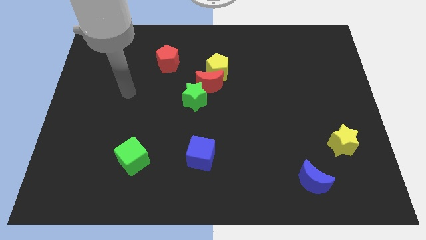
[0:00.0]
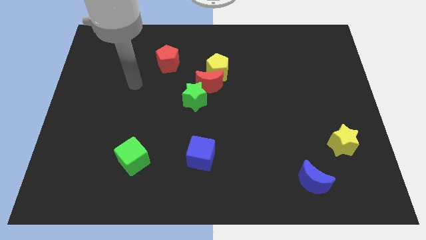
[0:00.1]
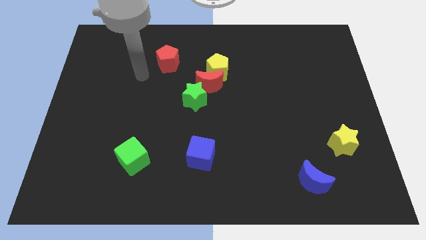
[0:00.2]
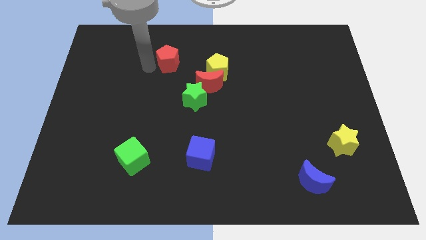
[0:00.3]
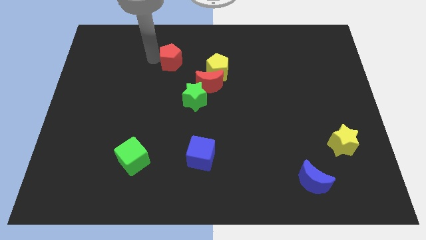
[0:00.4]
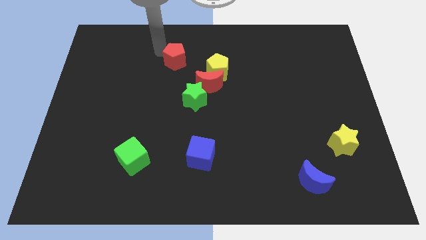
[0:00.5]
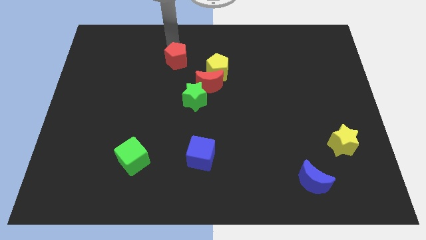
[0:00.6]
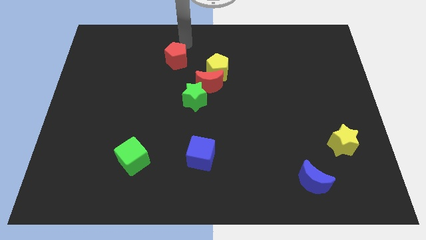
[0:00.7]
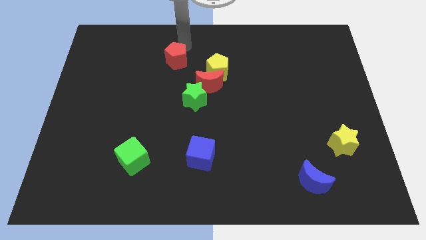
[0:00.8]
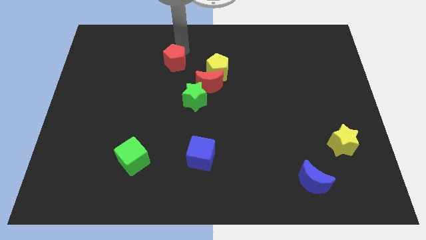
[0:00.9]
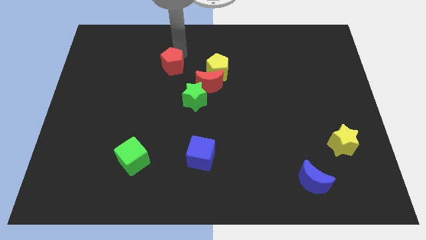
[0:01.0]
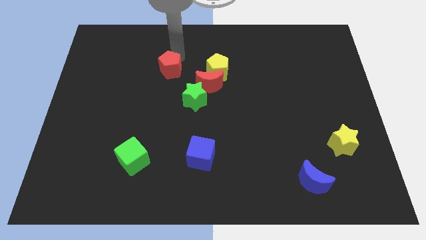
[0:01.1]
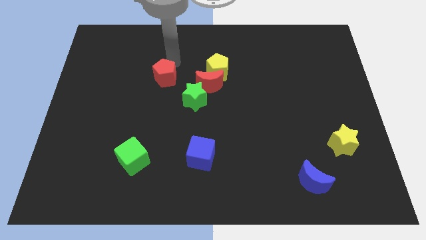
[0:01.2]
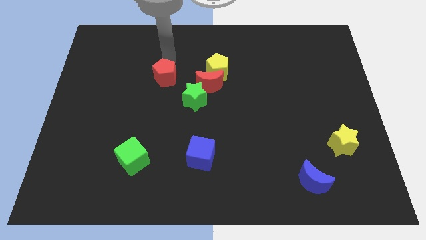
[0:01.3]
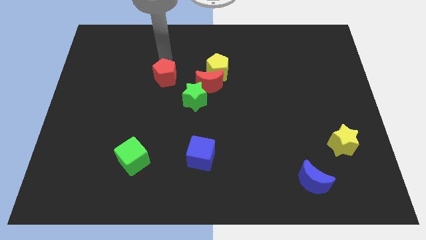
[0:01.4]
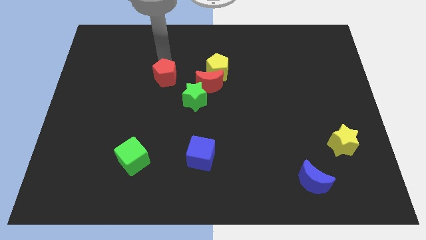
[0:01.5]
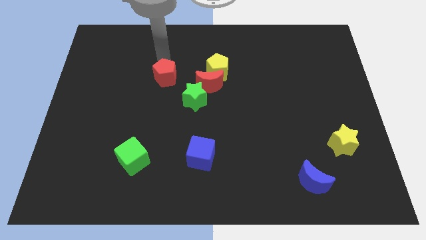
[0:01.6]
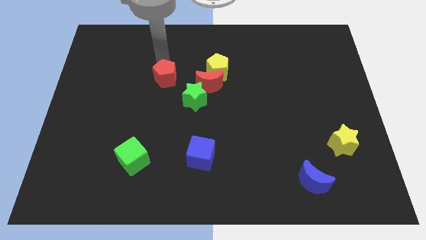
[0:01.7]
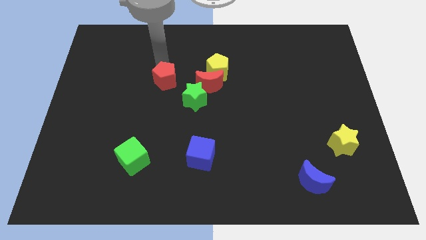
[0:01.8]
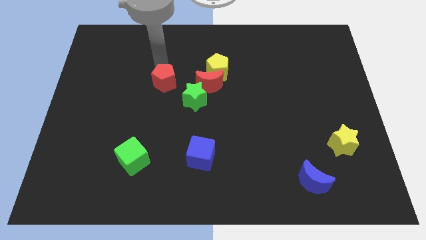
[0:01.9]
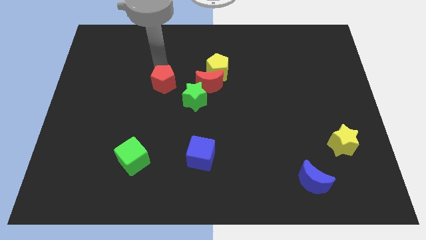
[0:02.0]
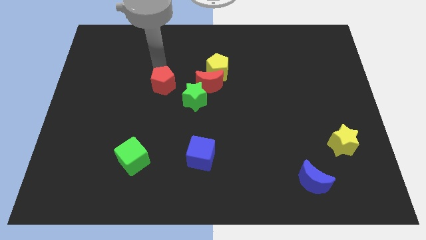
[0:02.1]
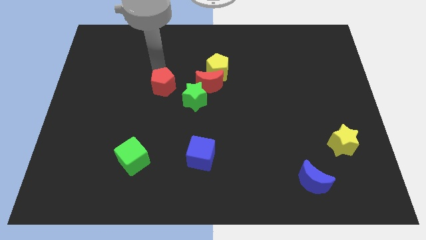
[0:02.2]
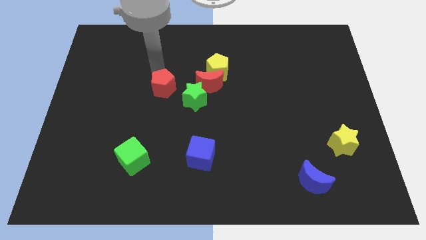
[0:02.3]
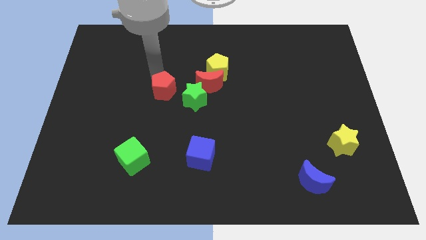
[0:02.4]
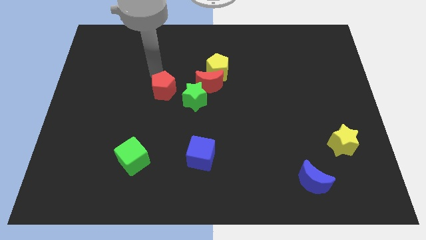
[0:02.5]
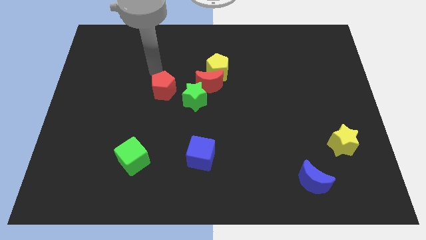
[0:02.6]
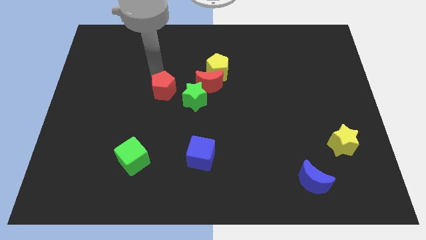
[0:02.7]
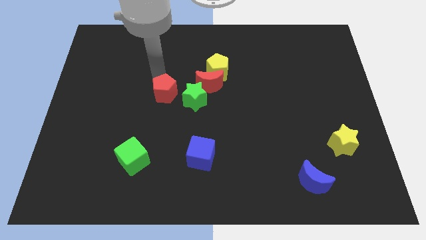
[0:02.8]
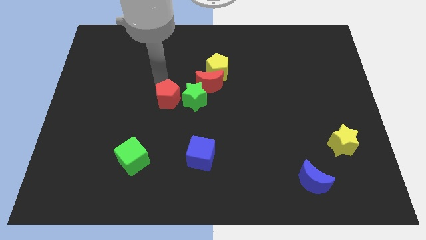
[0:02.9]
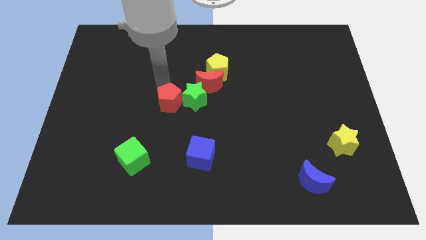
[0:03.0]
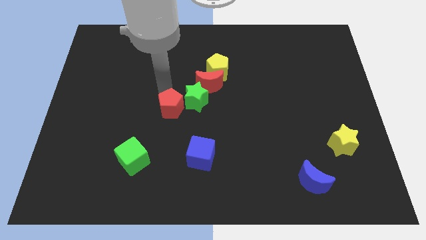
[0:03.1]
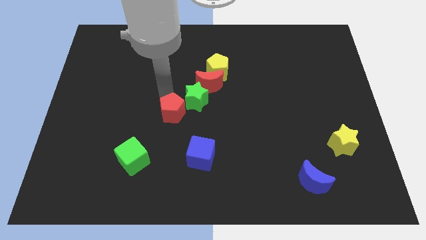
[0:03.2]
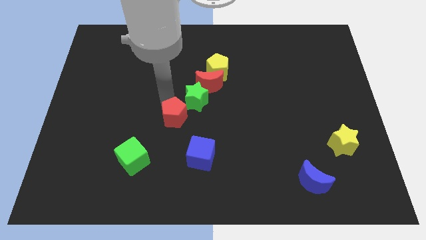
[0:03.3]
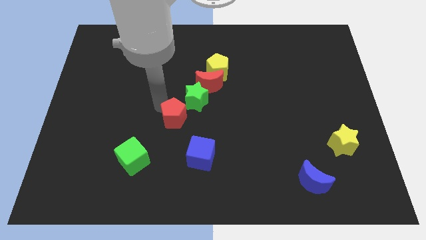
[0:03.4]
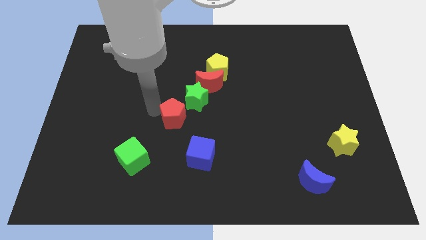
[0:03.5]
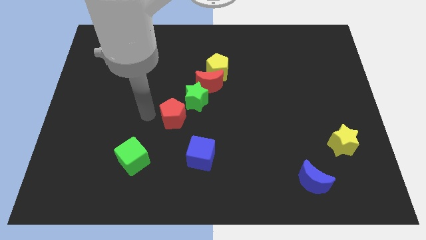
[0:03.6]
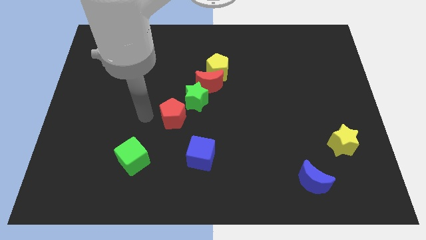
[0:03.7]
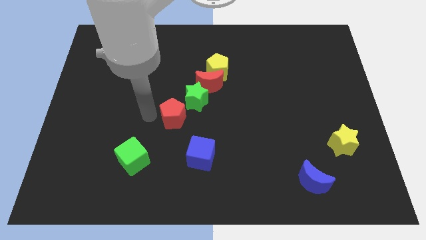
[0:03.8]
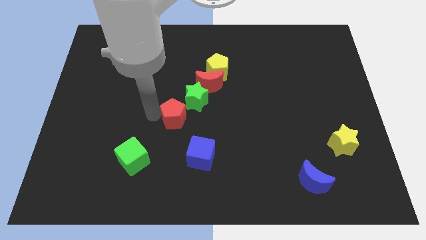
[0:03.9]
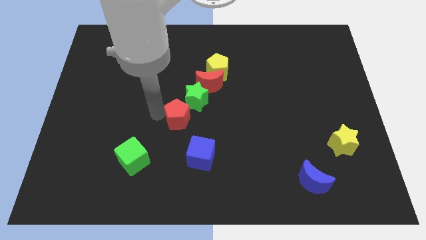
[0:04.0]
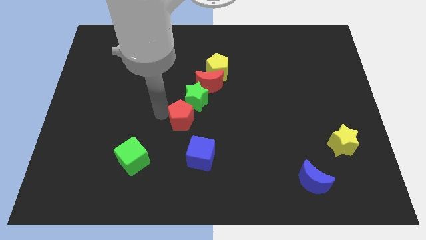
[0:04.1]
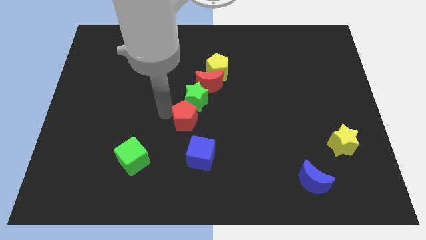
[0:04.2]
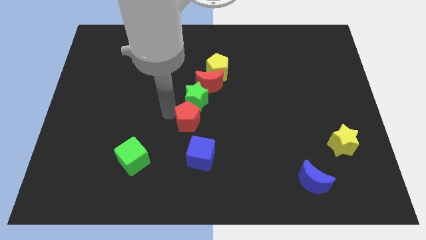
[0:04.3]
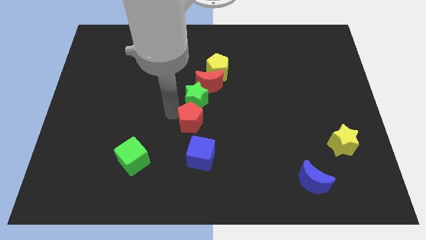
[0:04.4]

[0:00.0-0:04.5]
push the red pentagon diagonally down and to the right of the green star

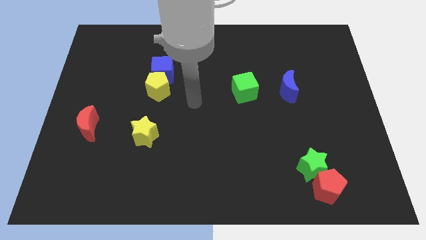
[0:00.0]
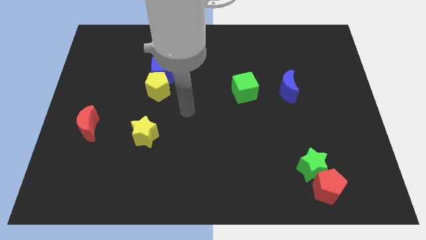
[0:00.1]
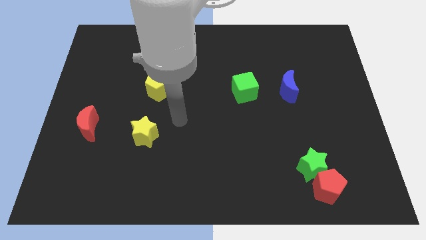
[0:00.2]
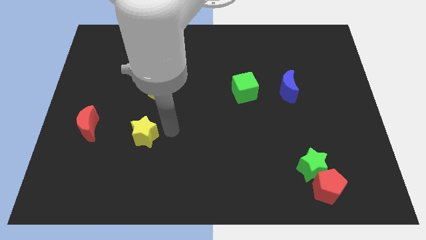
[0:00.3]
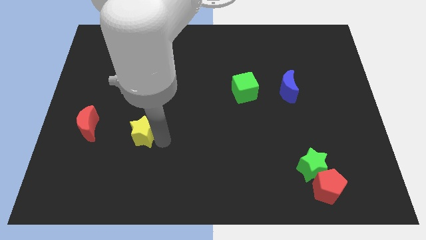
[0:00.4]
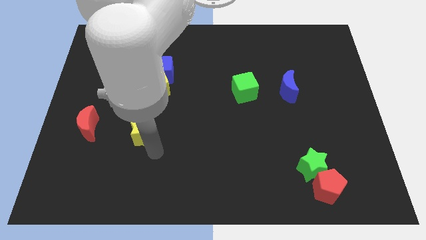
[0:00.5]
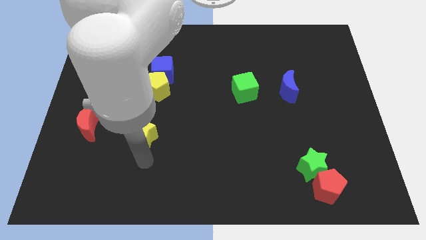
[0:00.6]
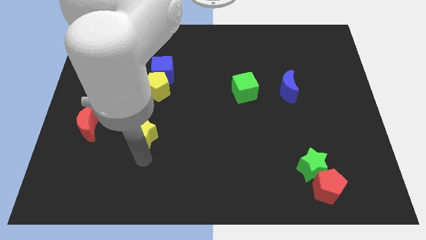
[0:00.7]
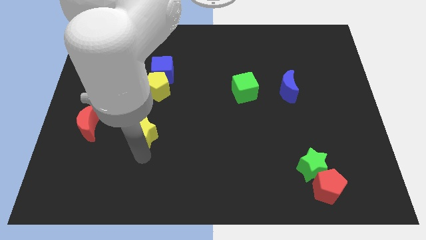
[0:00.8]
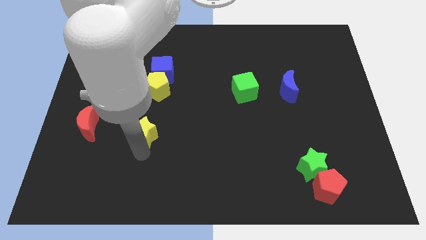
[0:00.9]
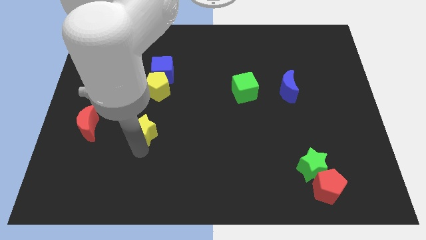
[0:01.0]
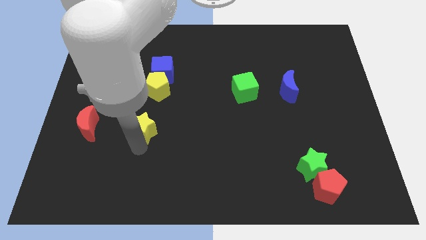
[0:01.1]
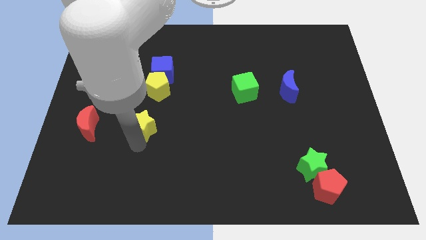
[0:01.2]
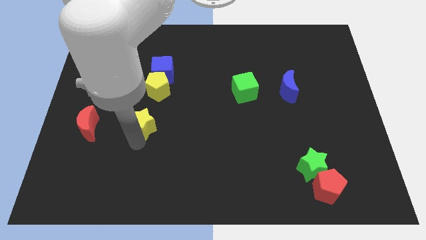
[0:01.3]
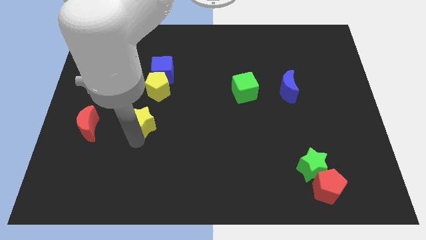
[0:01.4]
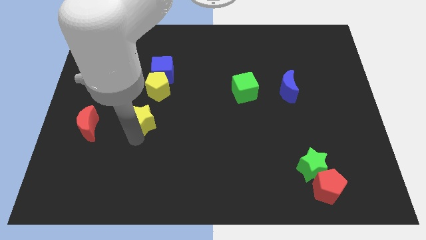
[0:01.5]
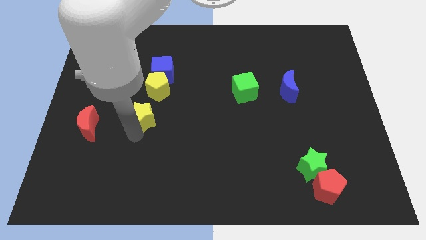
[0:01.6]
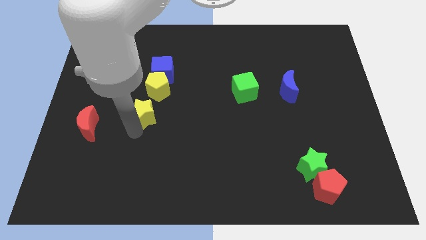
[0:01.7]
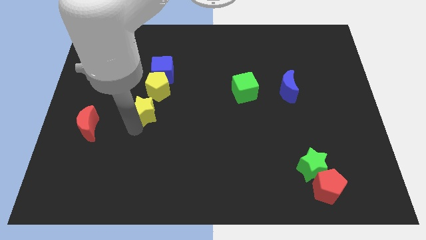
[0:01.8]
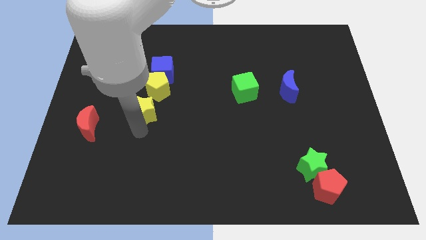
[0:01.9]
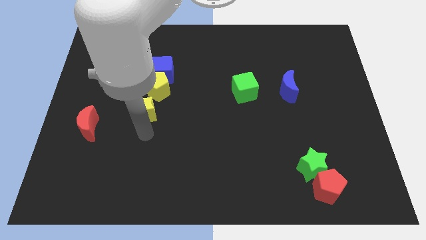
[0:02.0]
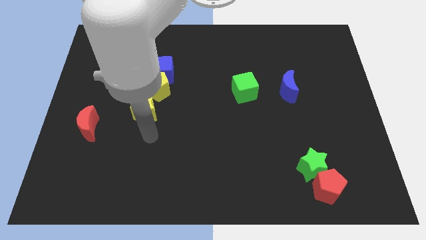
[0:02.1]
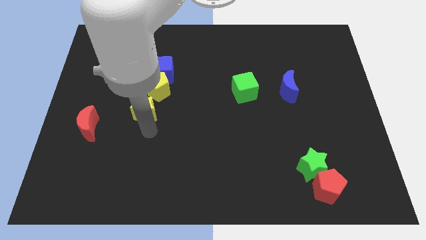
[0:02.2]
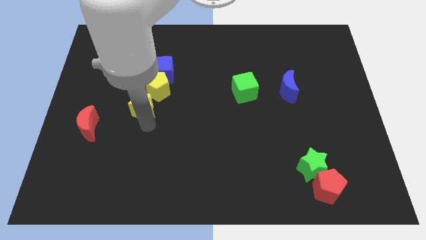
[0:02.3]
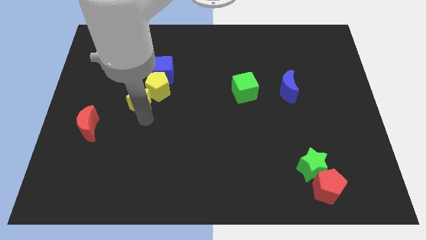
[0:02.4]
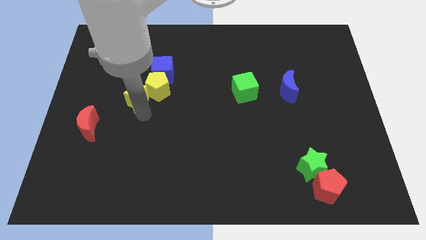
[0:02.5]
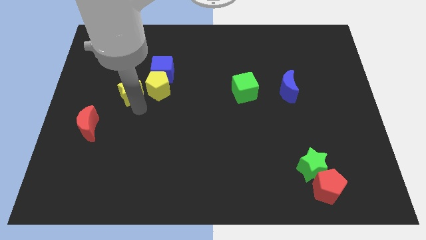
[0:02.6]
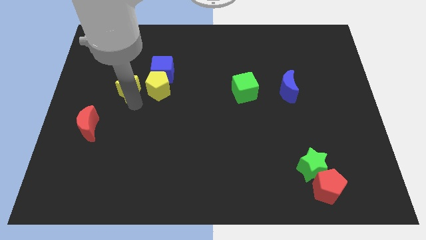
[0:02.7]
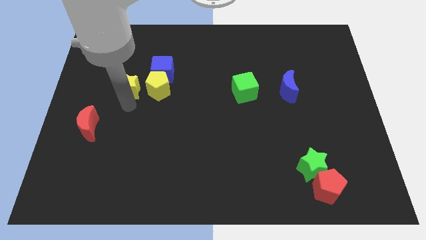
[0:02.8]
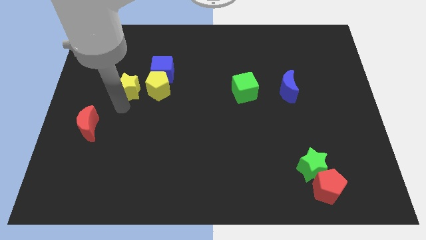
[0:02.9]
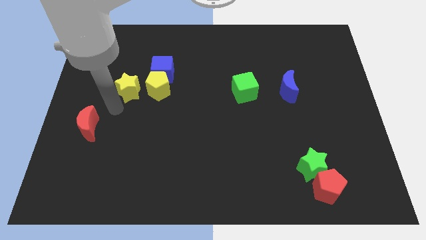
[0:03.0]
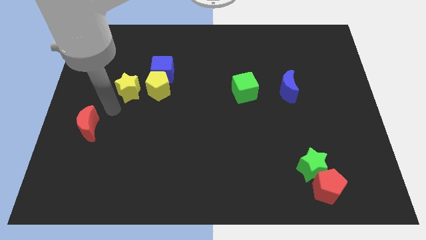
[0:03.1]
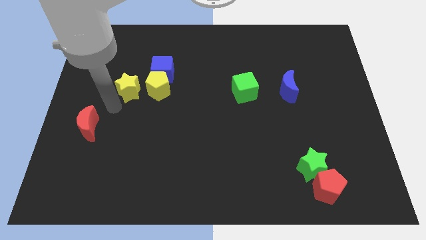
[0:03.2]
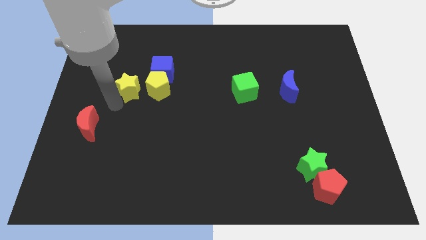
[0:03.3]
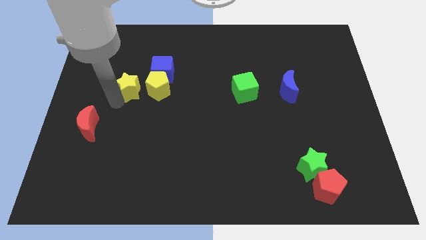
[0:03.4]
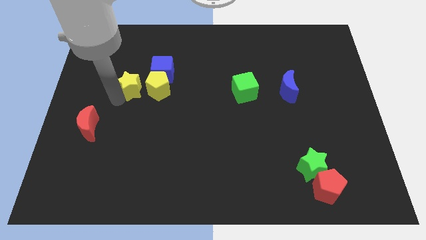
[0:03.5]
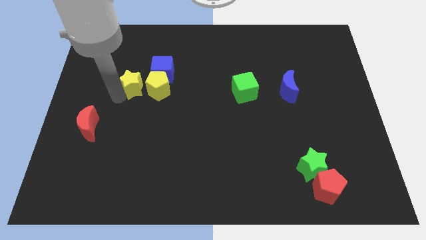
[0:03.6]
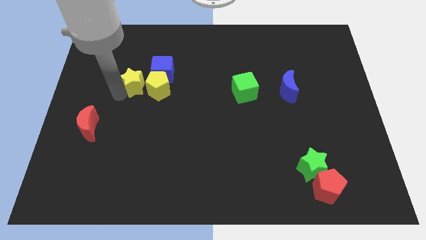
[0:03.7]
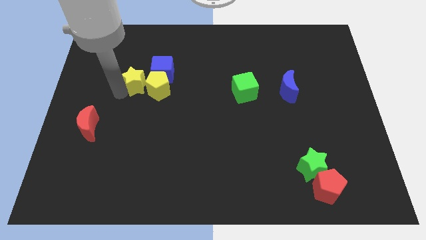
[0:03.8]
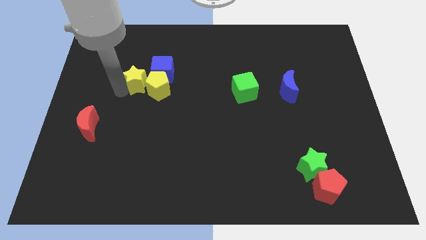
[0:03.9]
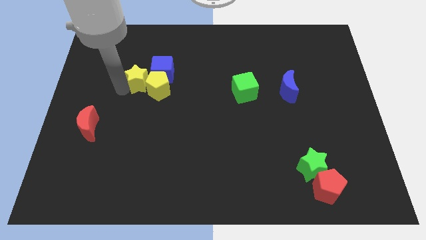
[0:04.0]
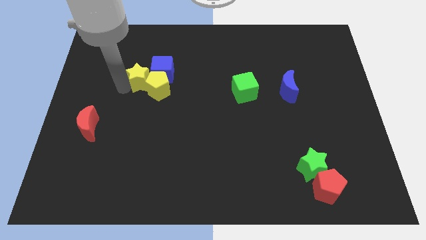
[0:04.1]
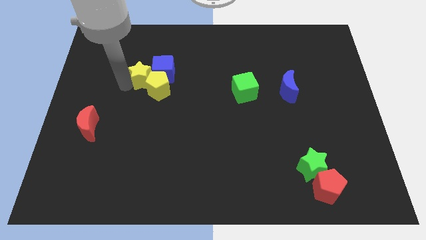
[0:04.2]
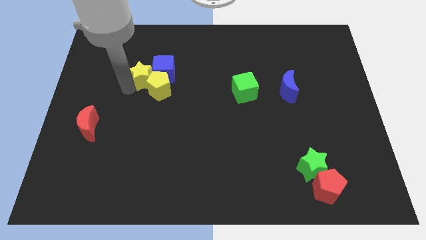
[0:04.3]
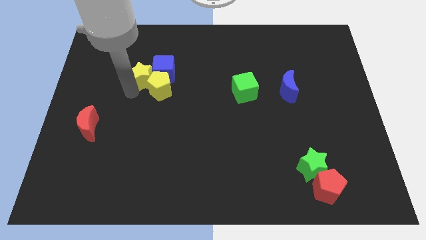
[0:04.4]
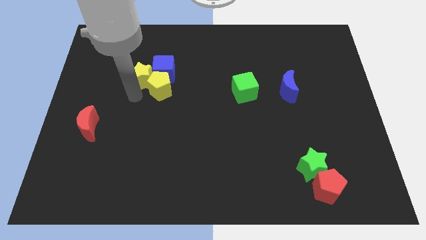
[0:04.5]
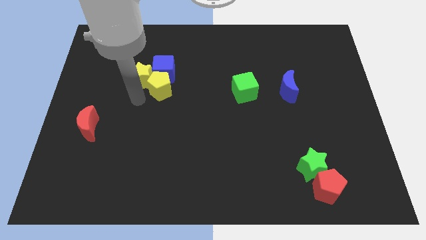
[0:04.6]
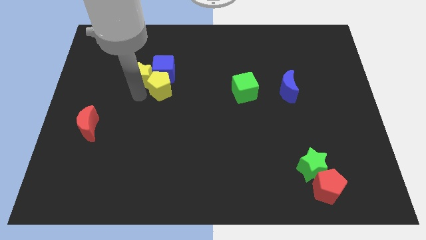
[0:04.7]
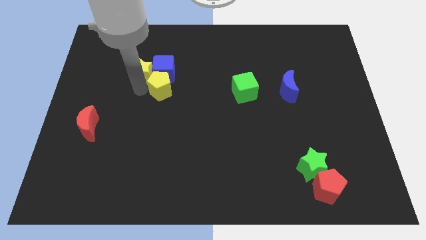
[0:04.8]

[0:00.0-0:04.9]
push the yellow star to the top left side of the blue cube
